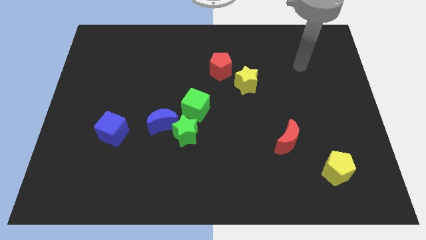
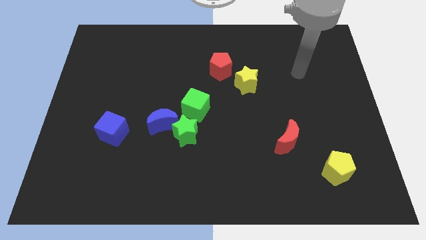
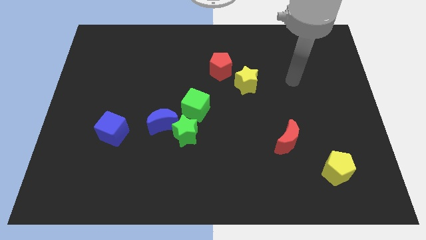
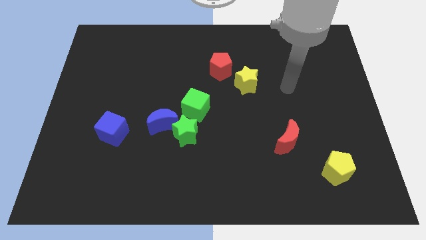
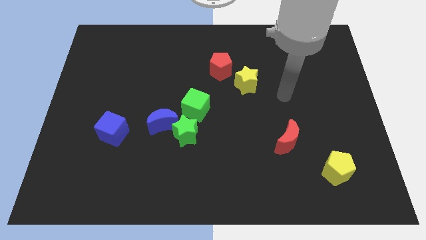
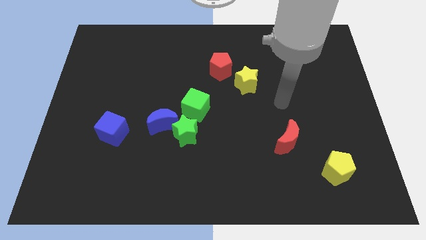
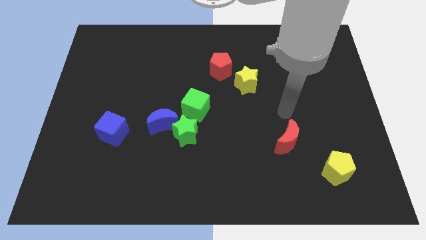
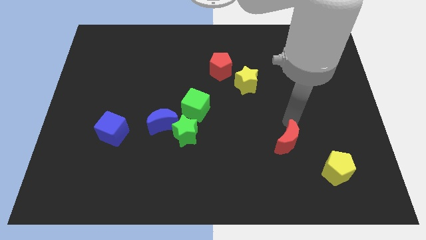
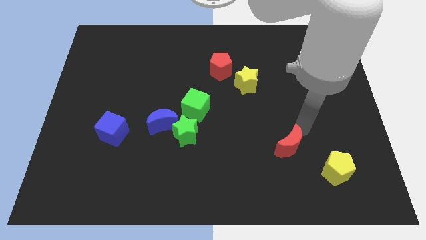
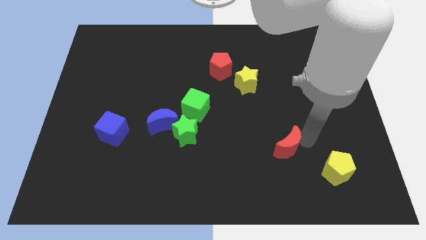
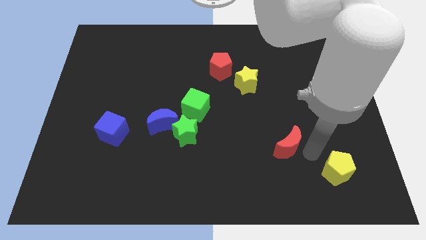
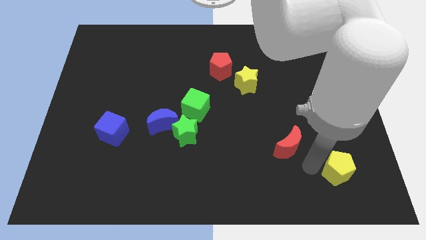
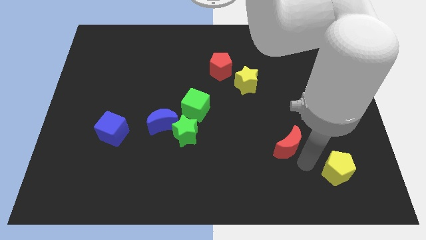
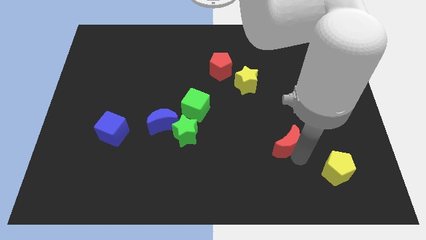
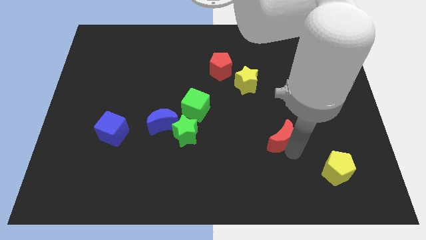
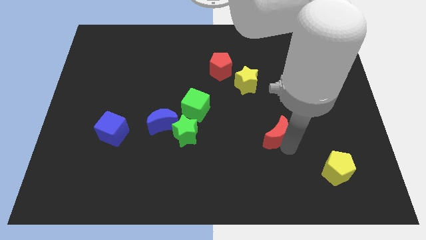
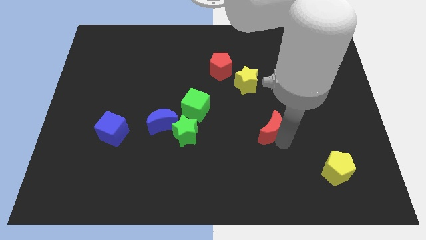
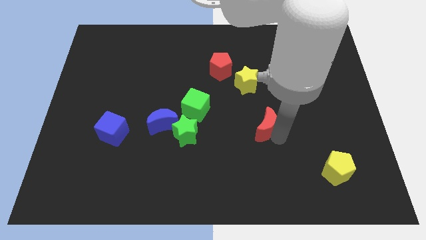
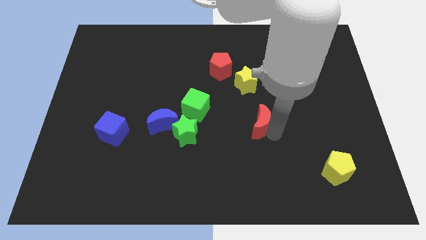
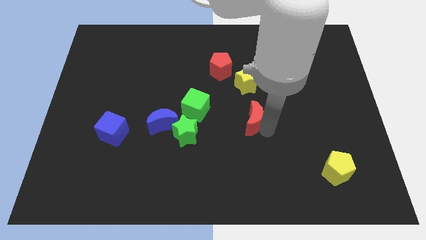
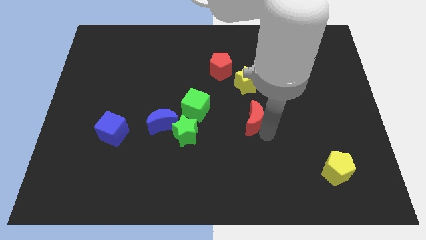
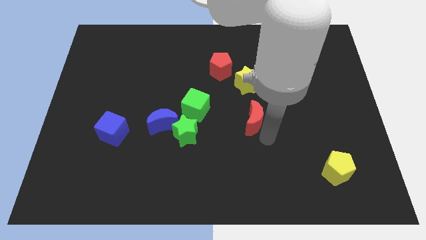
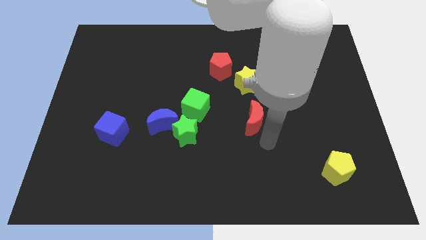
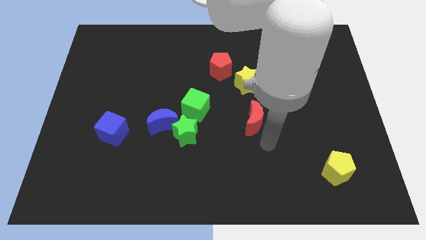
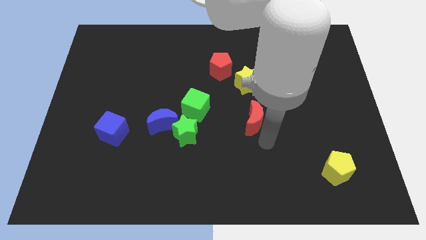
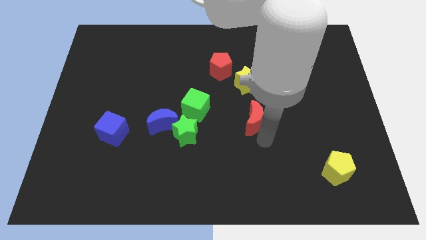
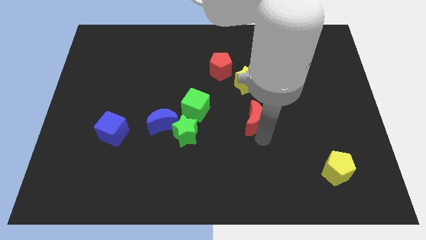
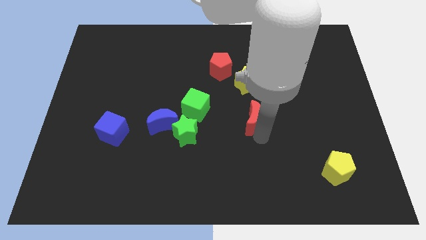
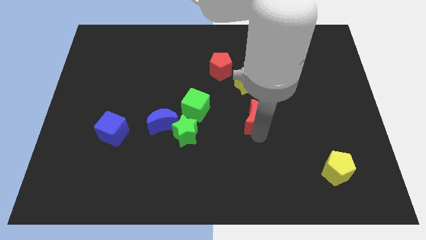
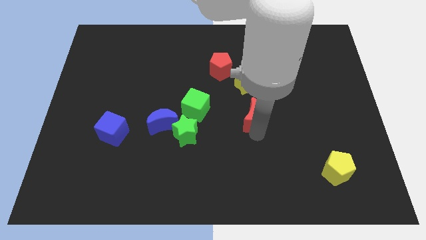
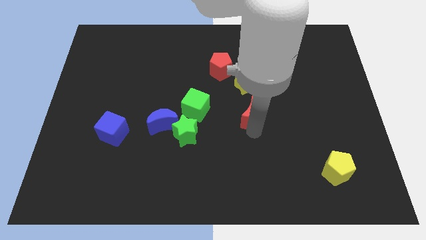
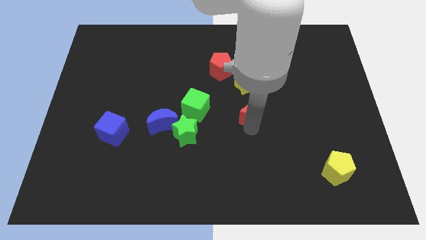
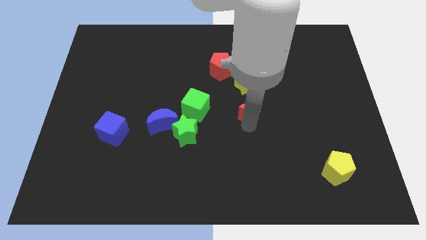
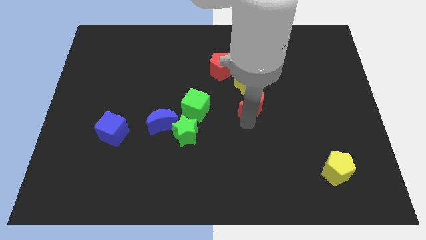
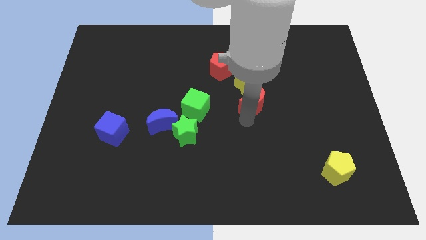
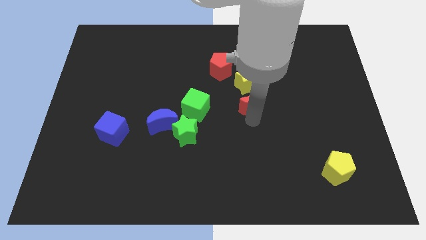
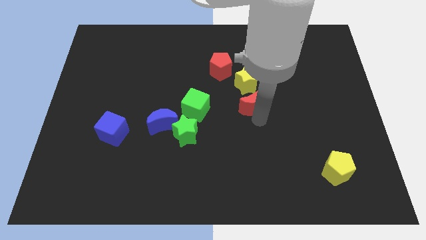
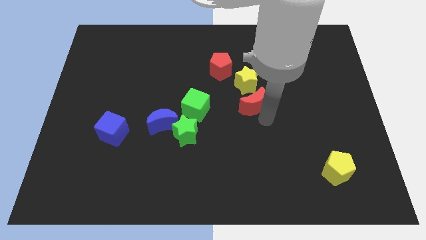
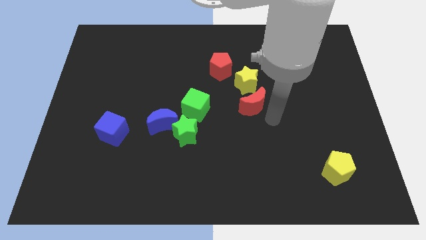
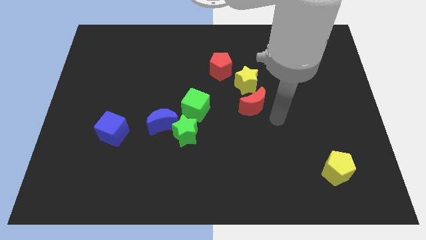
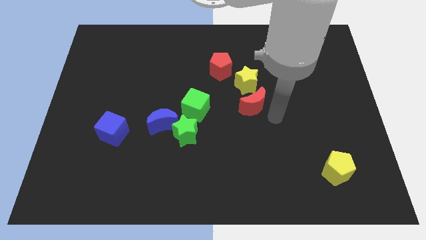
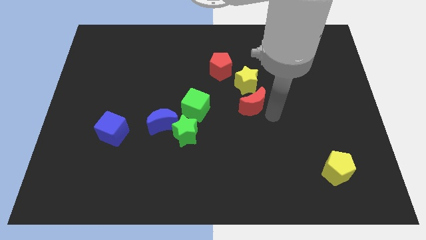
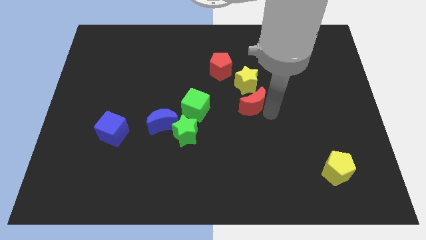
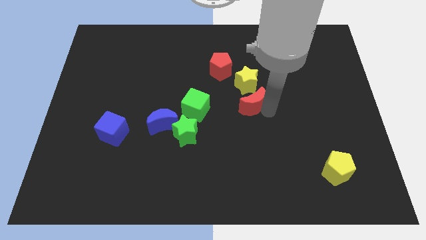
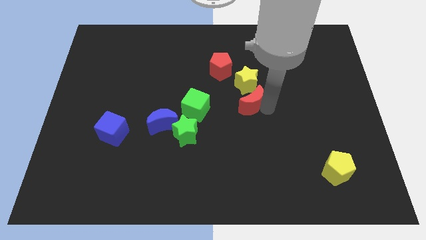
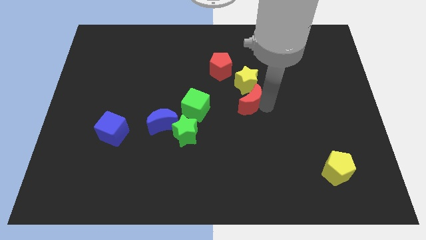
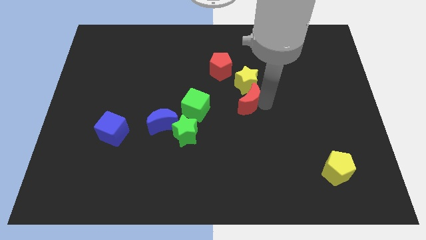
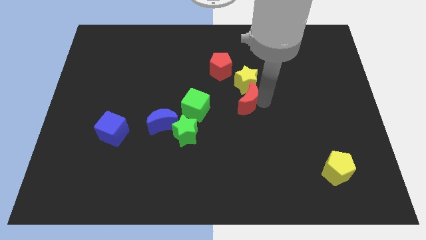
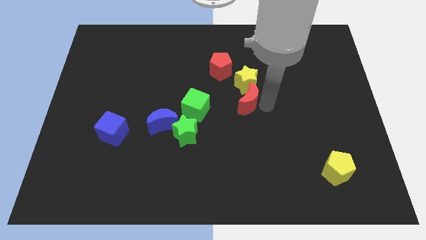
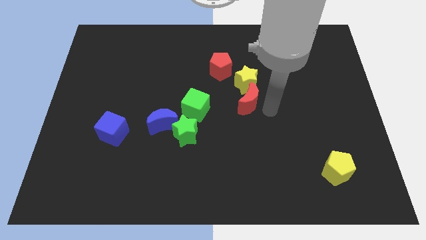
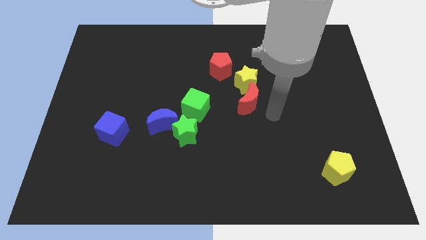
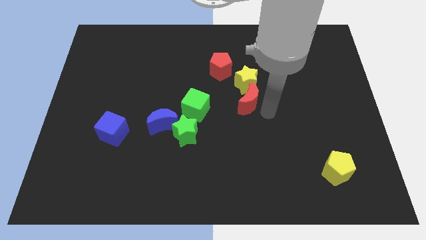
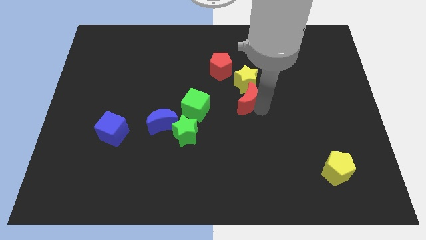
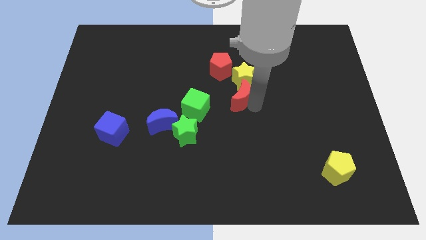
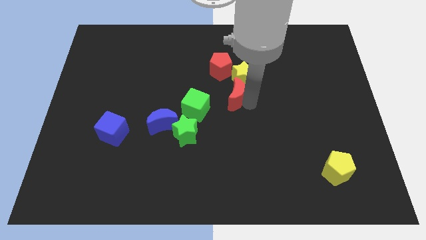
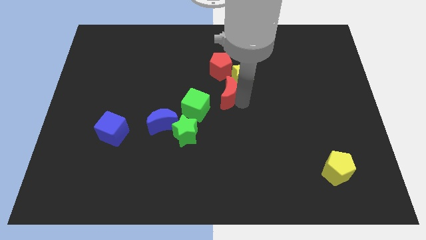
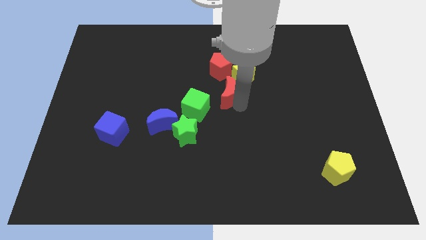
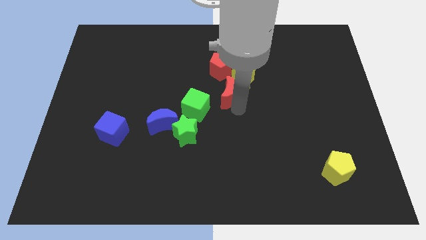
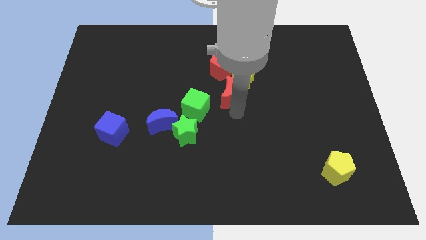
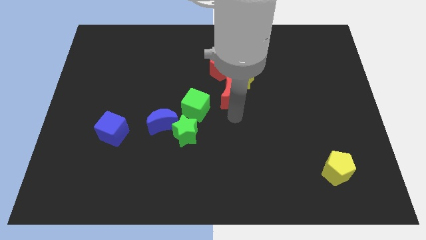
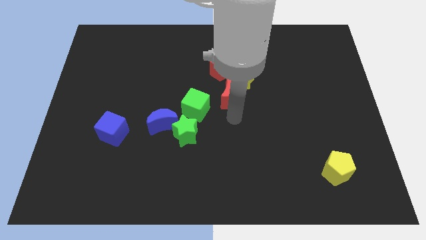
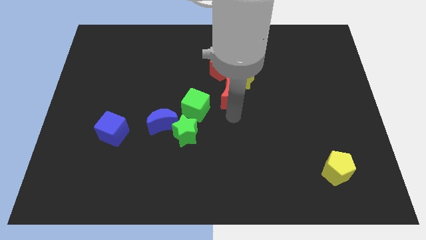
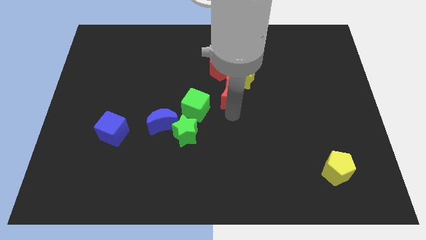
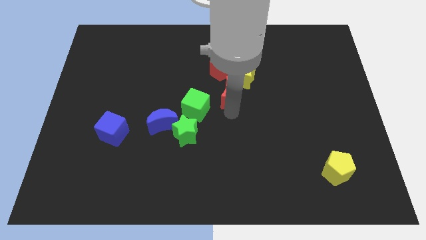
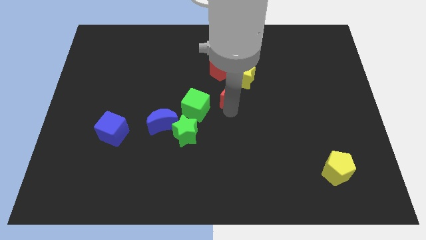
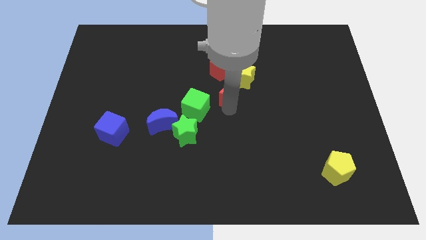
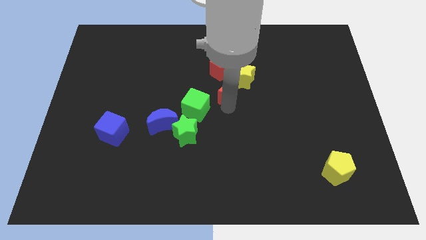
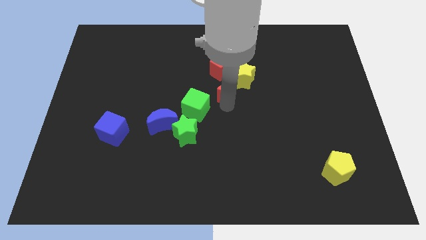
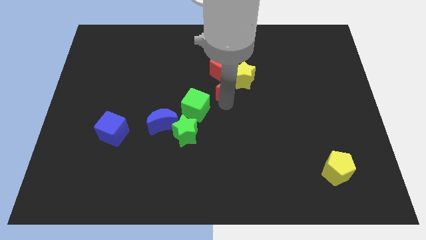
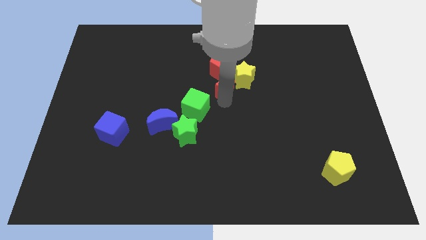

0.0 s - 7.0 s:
move the red moon towards the red pentagon
